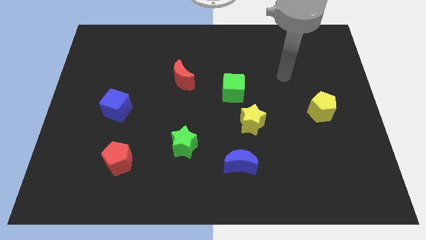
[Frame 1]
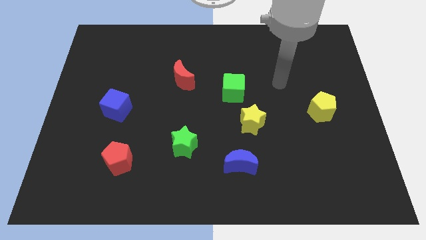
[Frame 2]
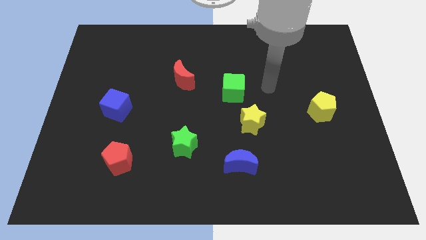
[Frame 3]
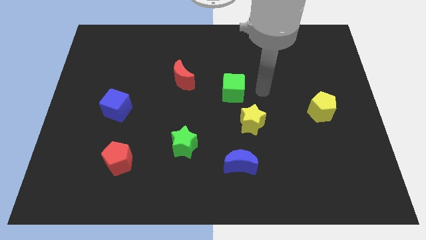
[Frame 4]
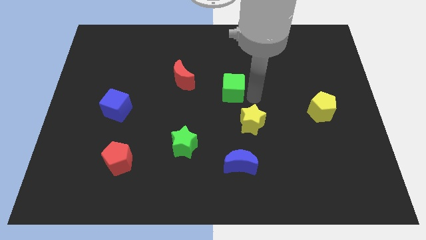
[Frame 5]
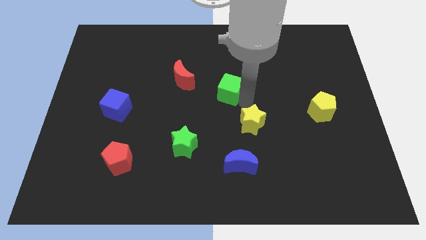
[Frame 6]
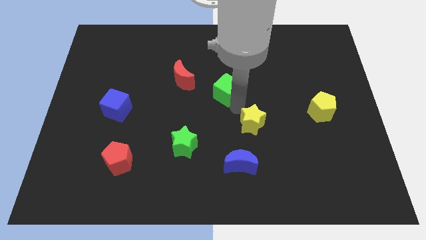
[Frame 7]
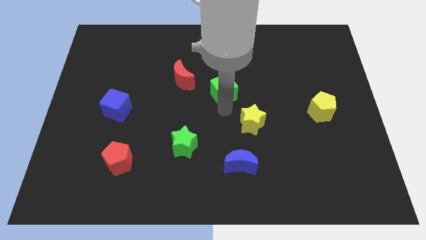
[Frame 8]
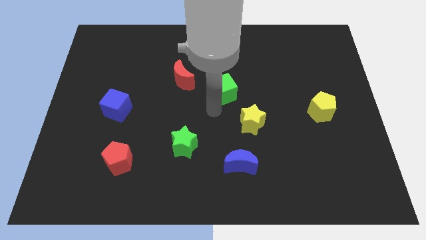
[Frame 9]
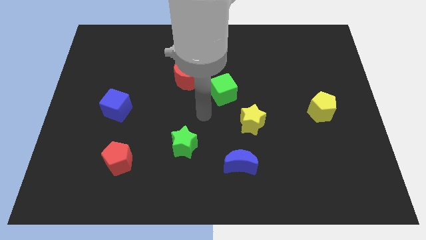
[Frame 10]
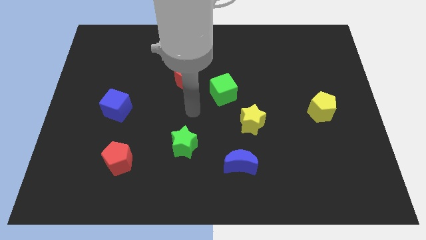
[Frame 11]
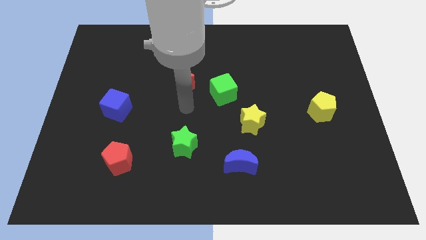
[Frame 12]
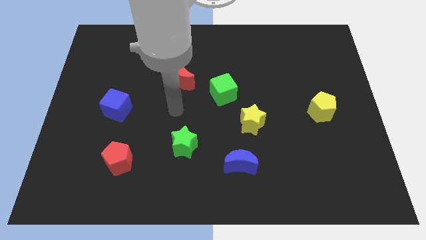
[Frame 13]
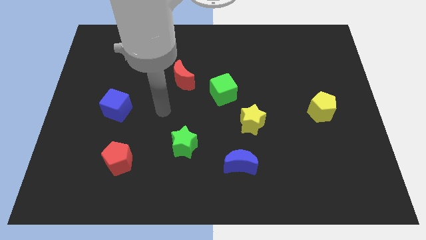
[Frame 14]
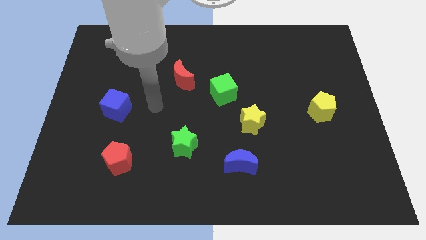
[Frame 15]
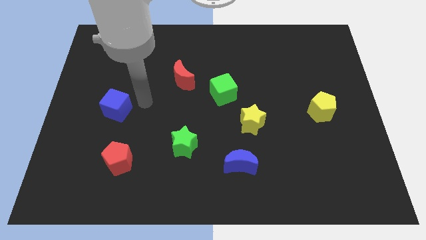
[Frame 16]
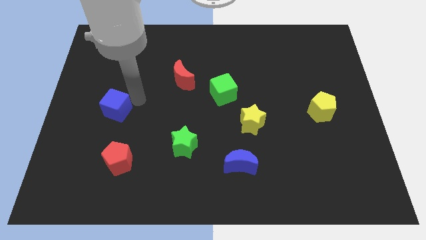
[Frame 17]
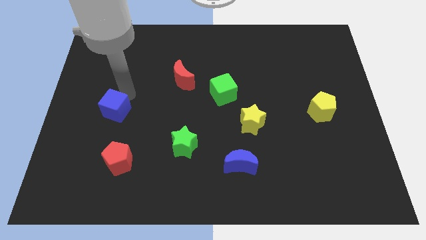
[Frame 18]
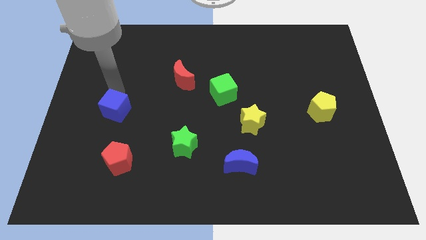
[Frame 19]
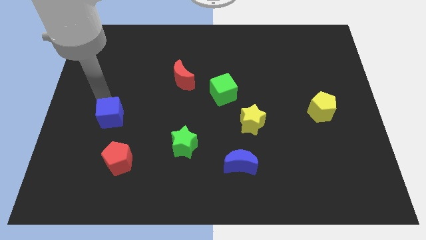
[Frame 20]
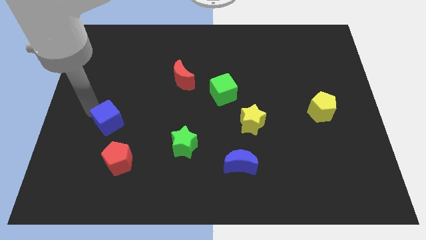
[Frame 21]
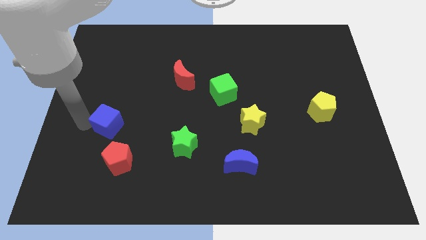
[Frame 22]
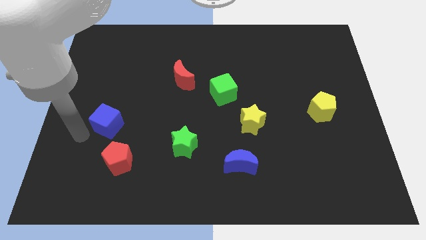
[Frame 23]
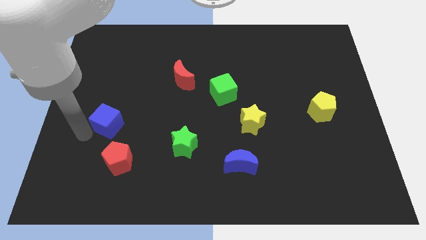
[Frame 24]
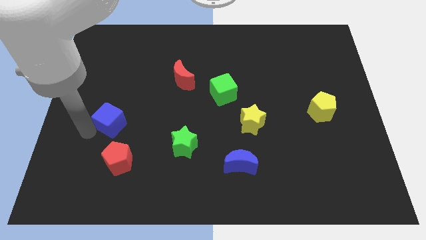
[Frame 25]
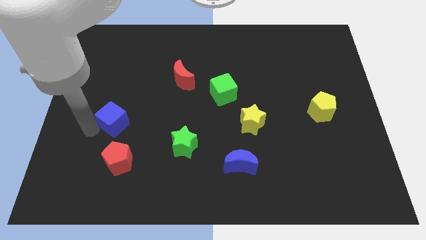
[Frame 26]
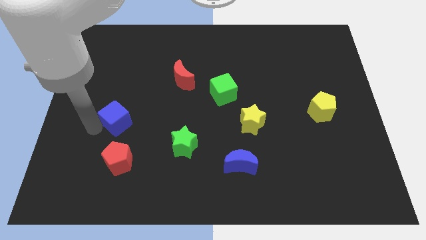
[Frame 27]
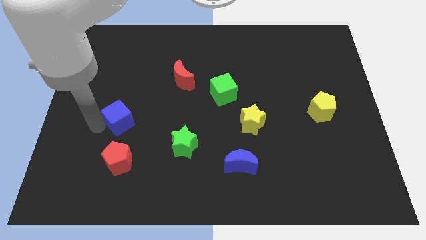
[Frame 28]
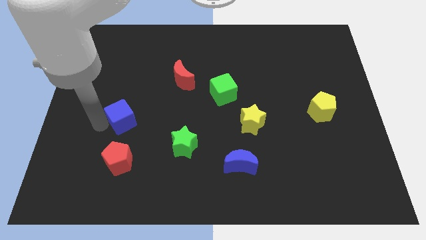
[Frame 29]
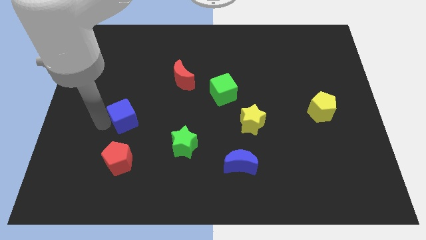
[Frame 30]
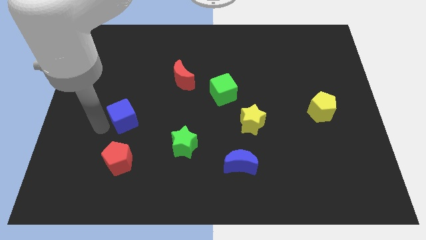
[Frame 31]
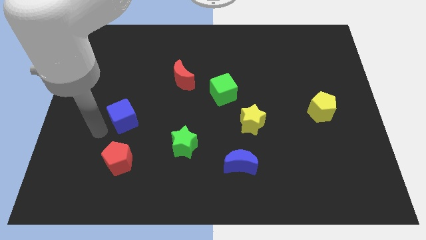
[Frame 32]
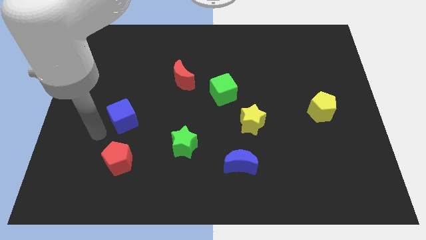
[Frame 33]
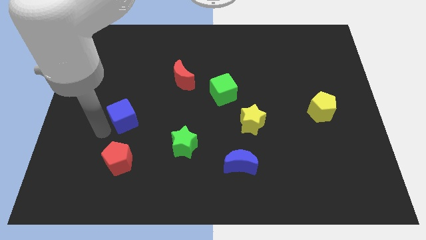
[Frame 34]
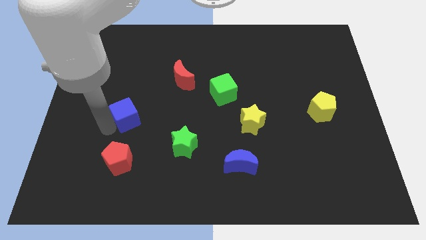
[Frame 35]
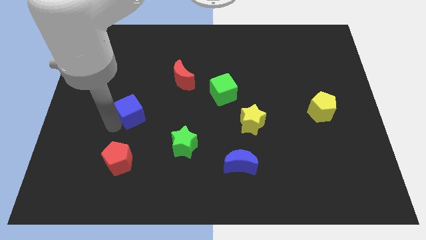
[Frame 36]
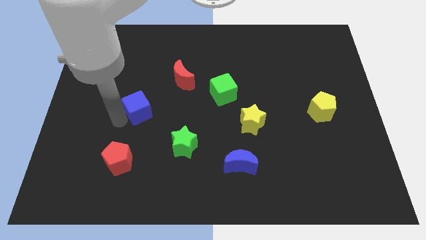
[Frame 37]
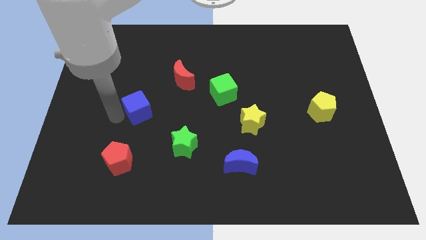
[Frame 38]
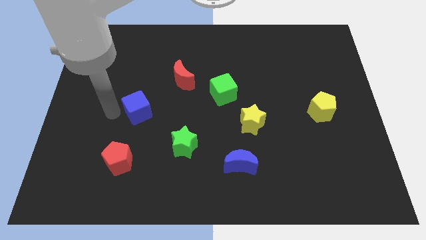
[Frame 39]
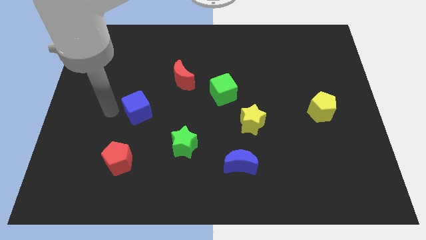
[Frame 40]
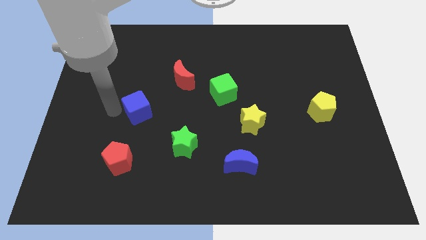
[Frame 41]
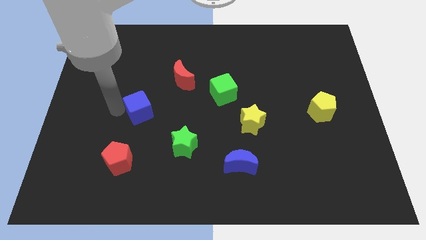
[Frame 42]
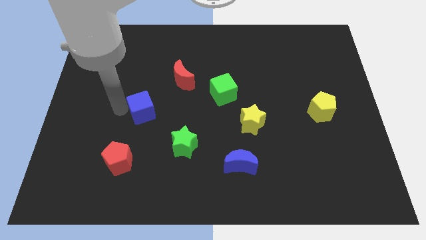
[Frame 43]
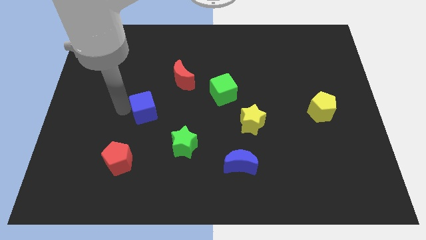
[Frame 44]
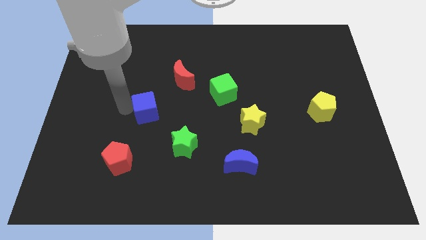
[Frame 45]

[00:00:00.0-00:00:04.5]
push the blue cube a bit to the right

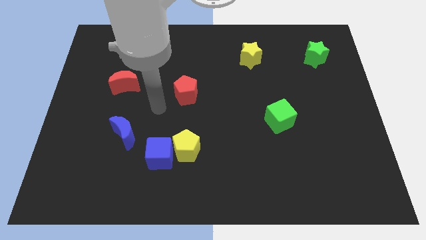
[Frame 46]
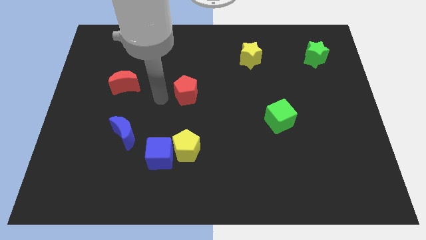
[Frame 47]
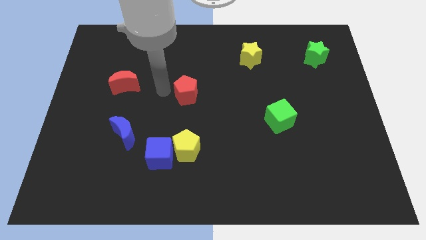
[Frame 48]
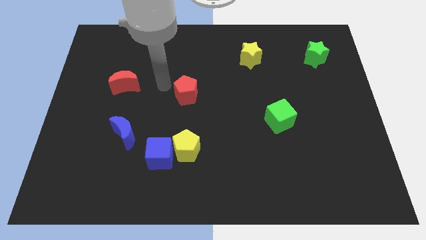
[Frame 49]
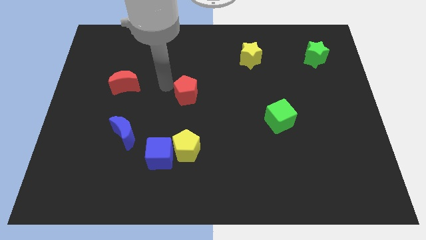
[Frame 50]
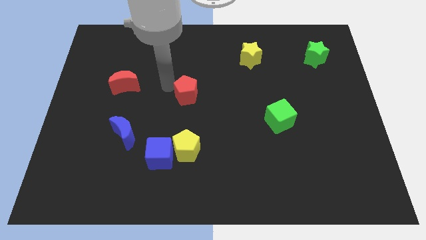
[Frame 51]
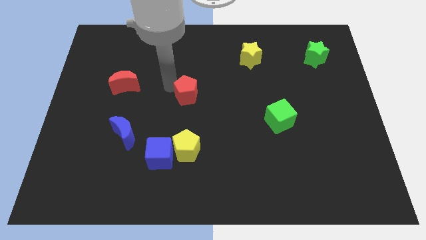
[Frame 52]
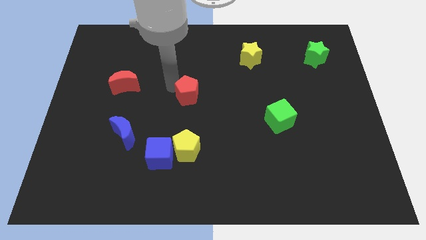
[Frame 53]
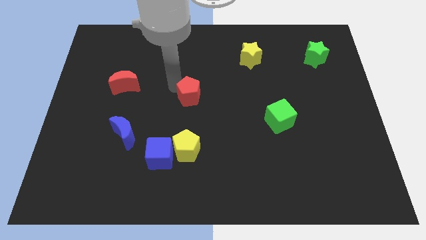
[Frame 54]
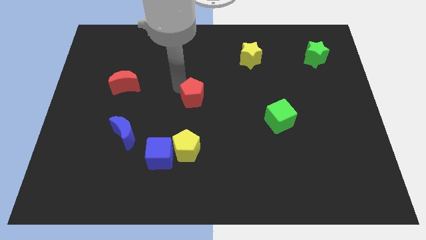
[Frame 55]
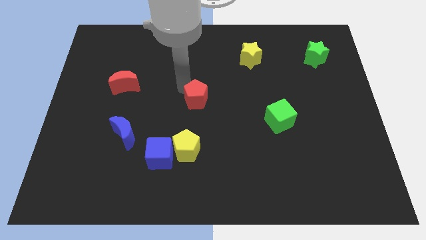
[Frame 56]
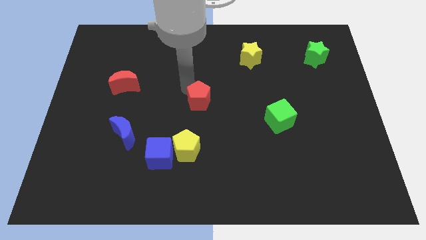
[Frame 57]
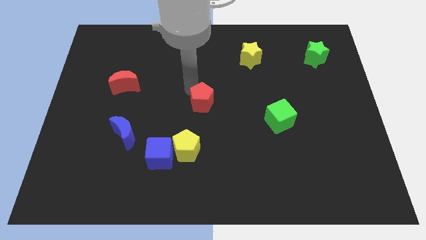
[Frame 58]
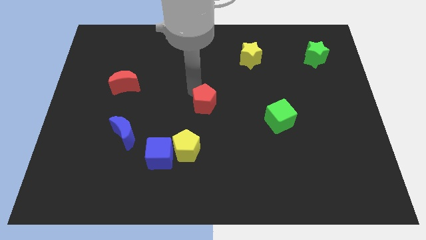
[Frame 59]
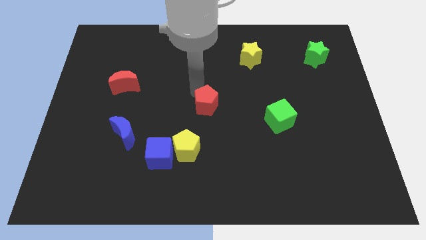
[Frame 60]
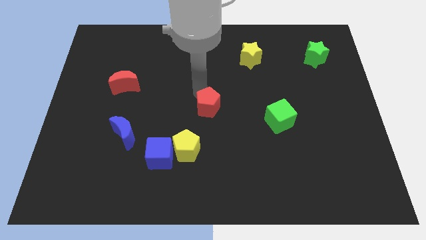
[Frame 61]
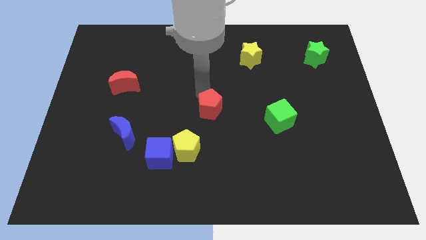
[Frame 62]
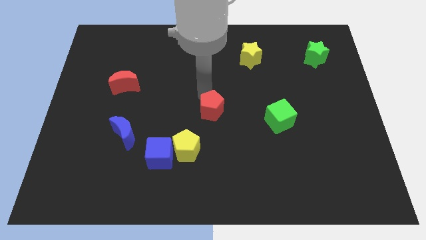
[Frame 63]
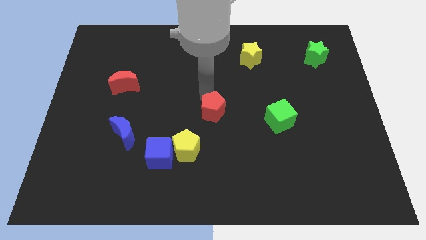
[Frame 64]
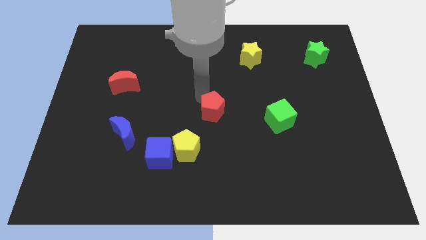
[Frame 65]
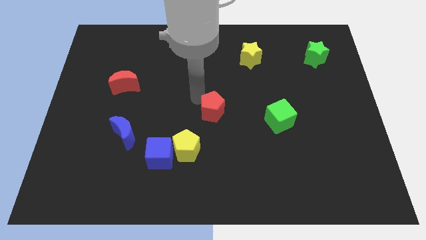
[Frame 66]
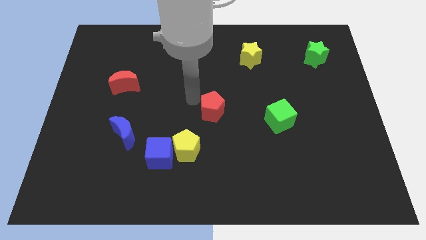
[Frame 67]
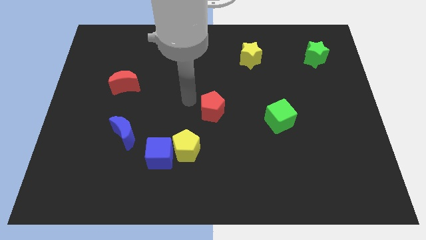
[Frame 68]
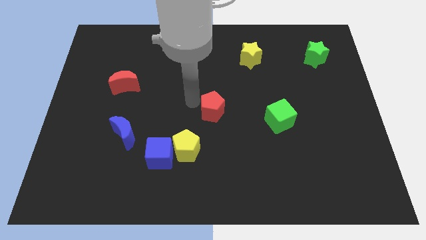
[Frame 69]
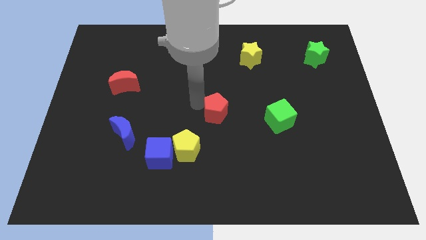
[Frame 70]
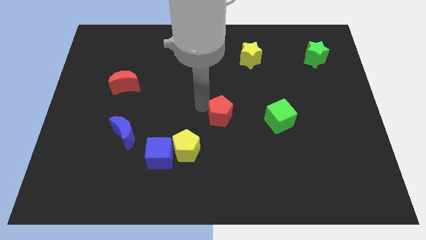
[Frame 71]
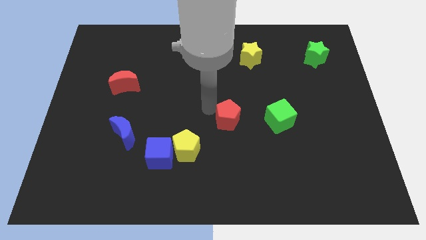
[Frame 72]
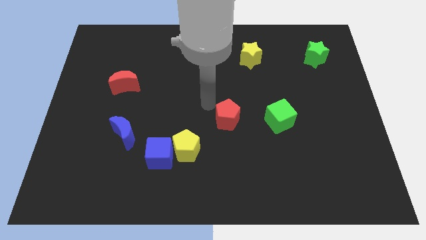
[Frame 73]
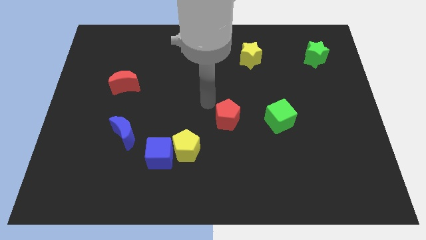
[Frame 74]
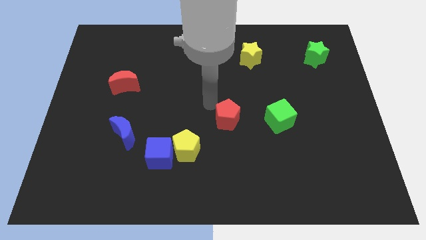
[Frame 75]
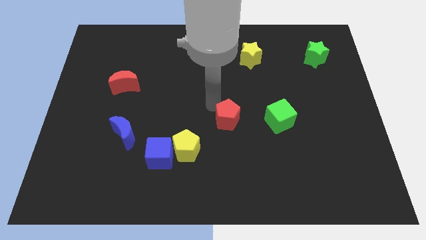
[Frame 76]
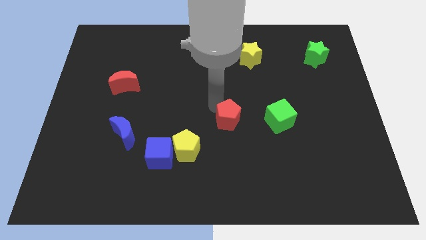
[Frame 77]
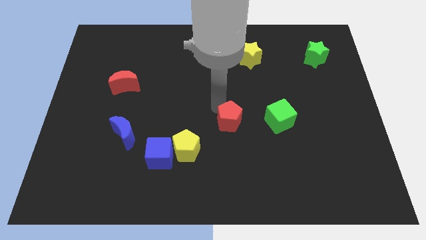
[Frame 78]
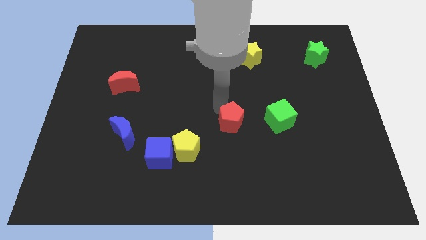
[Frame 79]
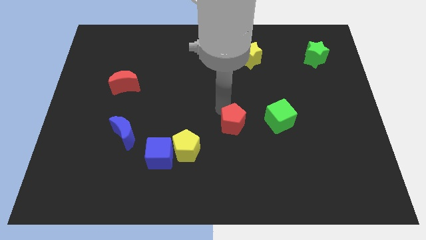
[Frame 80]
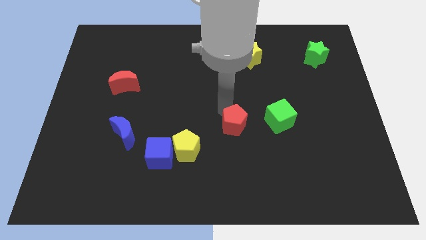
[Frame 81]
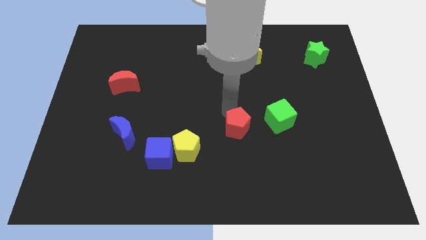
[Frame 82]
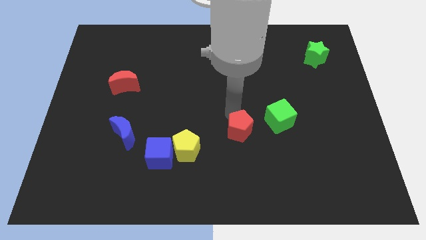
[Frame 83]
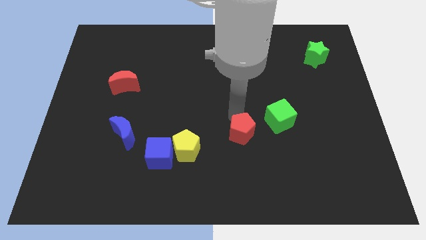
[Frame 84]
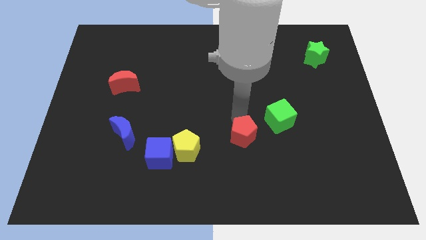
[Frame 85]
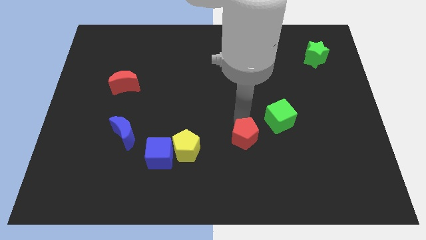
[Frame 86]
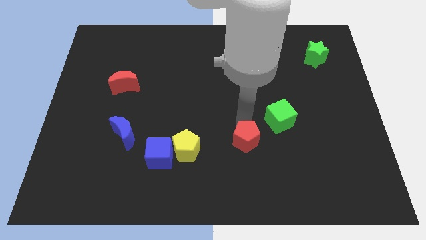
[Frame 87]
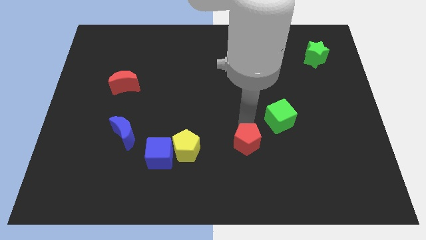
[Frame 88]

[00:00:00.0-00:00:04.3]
push the red pentagon down and right
